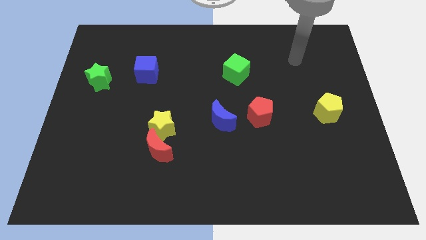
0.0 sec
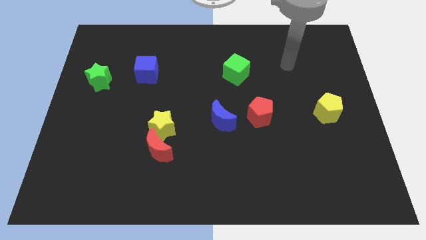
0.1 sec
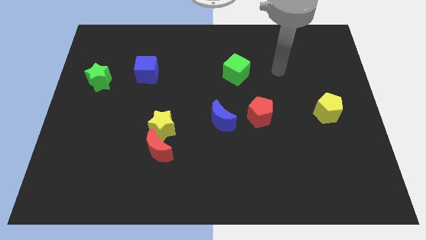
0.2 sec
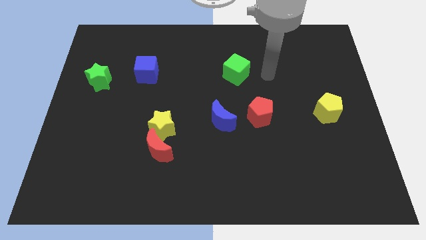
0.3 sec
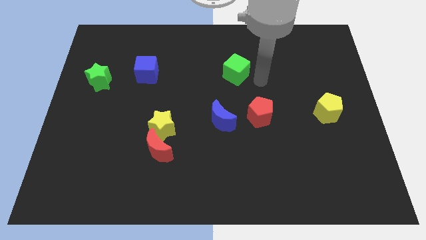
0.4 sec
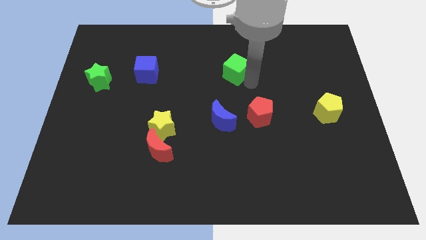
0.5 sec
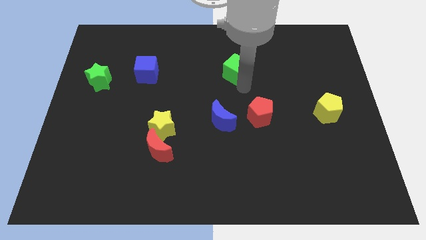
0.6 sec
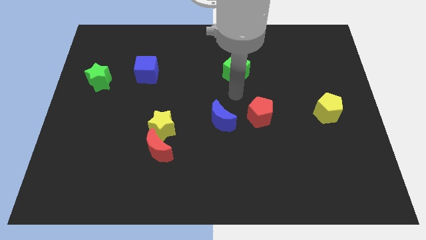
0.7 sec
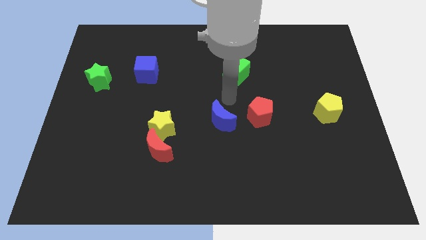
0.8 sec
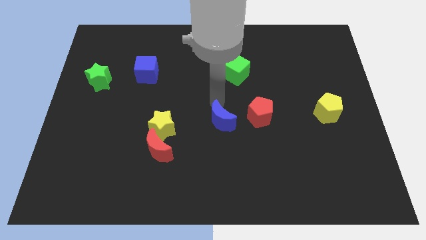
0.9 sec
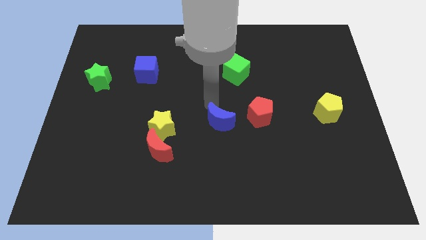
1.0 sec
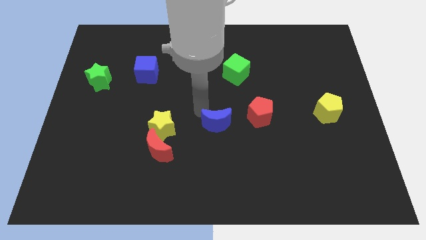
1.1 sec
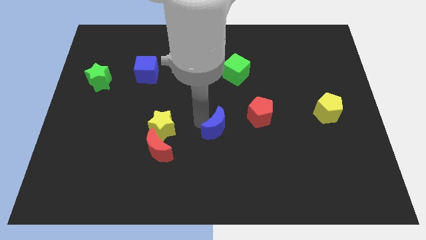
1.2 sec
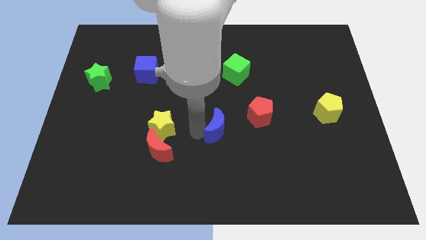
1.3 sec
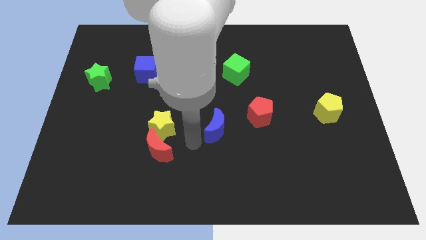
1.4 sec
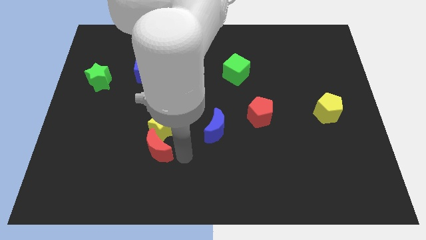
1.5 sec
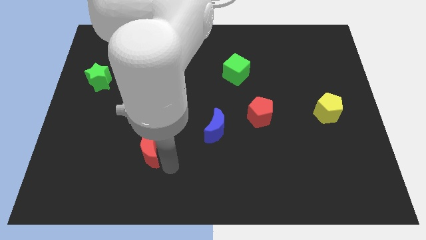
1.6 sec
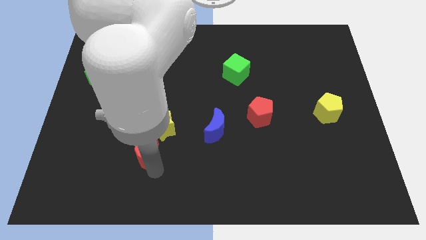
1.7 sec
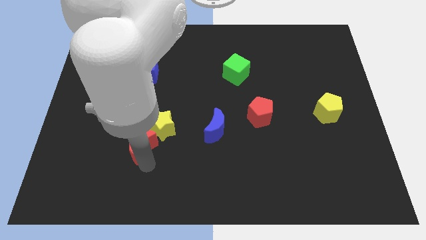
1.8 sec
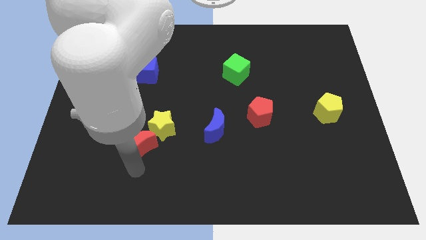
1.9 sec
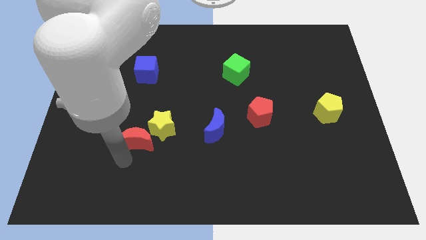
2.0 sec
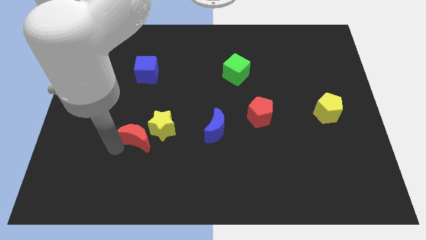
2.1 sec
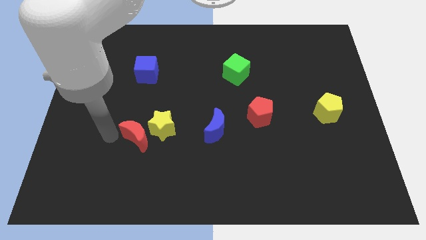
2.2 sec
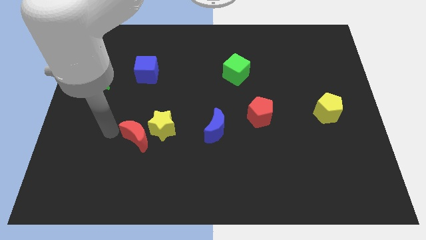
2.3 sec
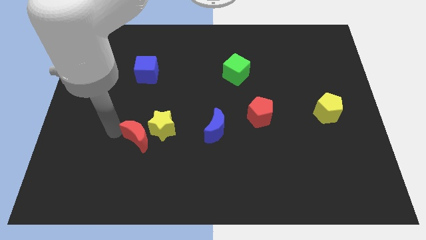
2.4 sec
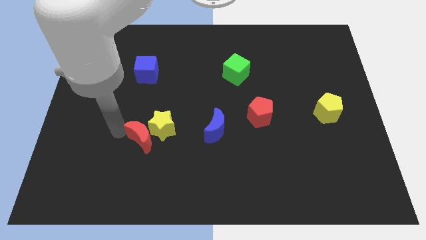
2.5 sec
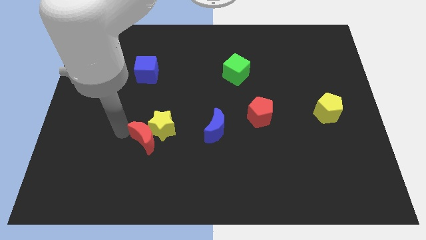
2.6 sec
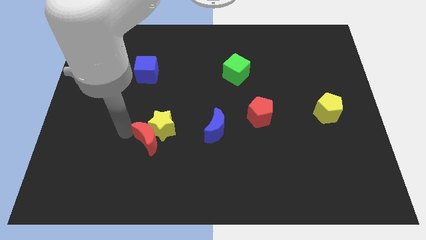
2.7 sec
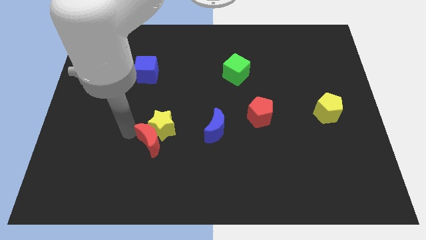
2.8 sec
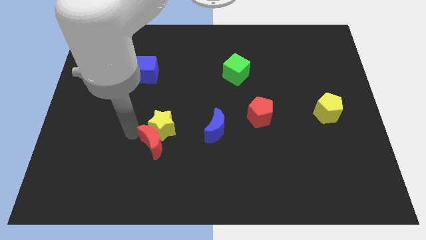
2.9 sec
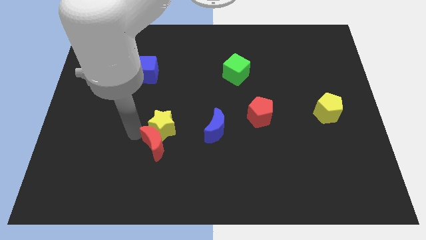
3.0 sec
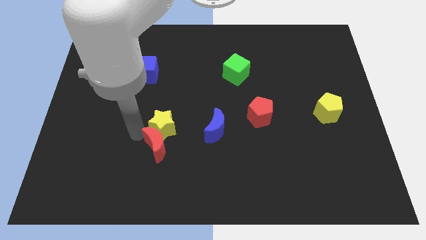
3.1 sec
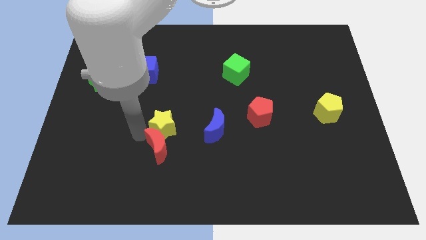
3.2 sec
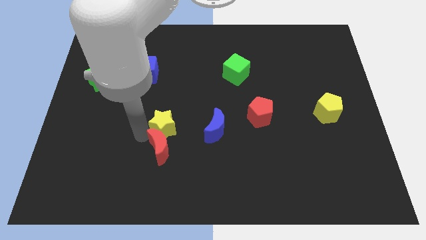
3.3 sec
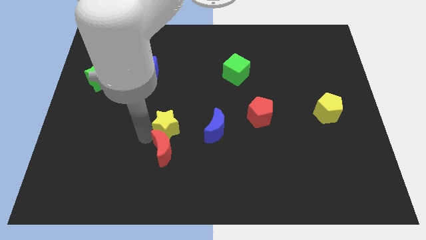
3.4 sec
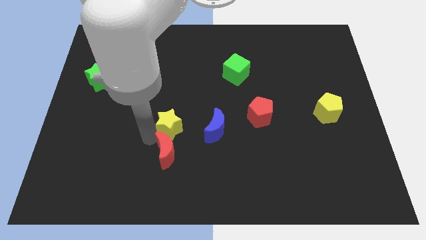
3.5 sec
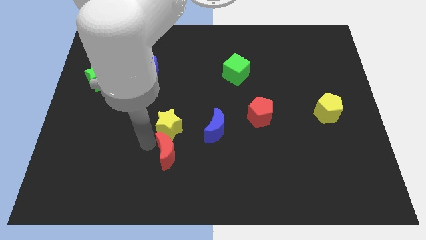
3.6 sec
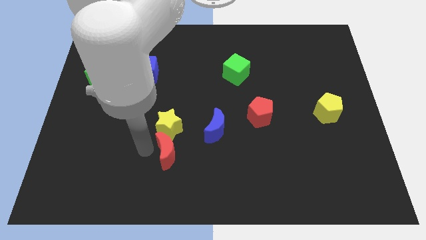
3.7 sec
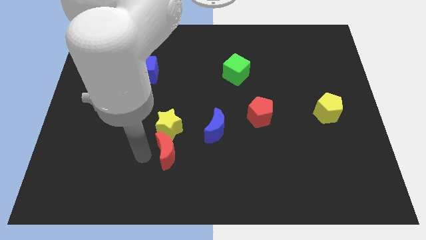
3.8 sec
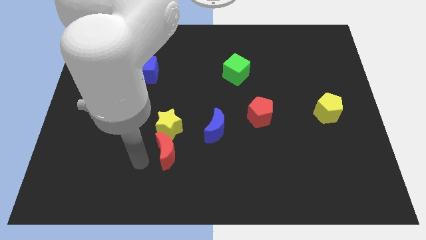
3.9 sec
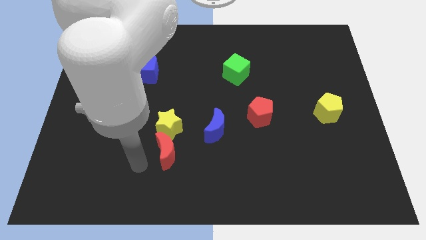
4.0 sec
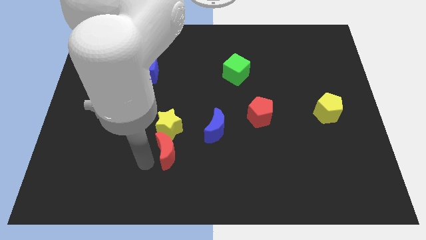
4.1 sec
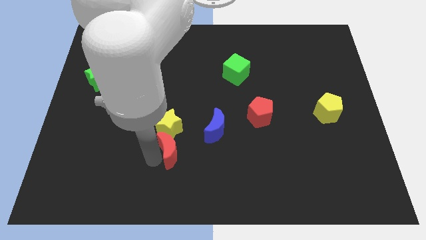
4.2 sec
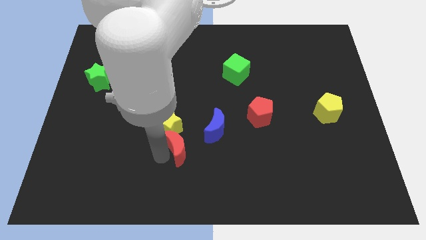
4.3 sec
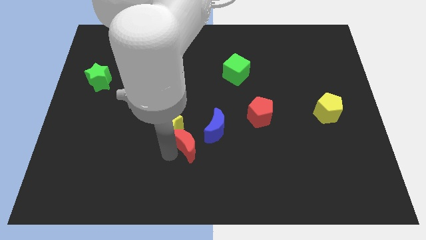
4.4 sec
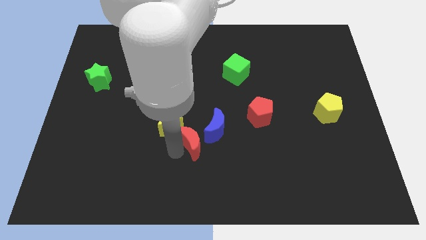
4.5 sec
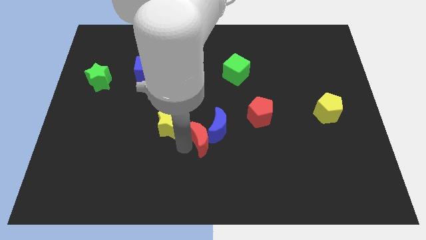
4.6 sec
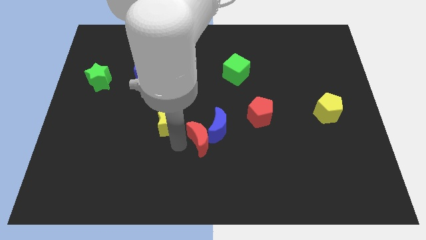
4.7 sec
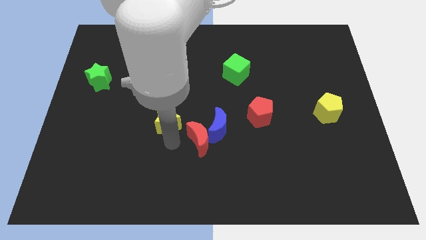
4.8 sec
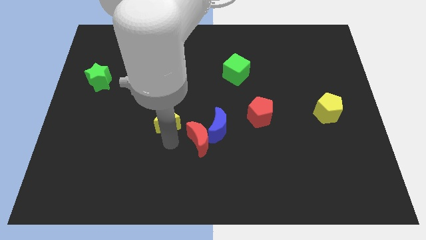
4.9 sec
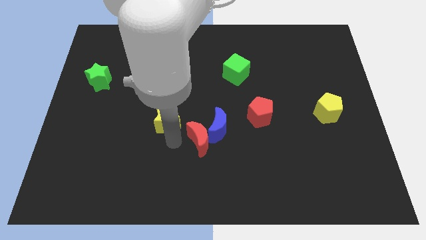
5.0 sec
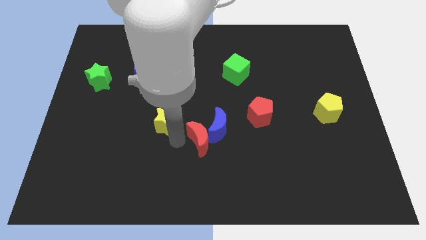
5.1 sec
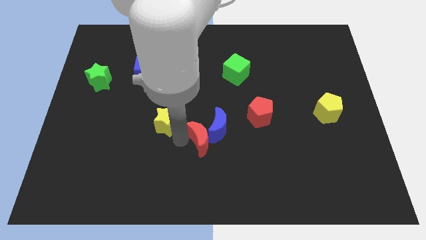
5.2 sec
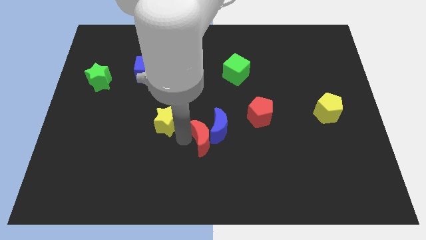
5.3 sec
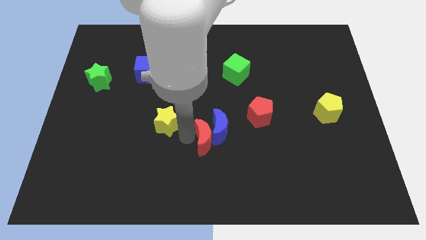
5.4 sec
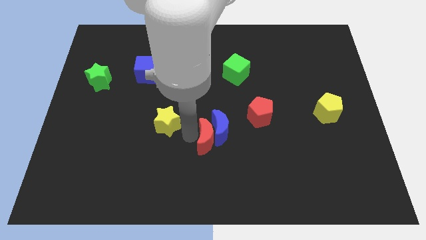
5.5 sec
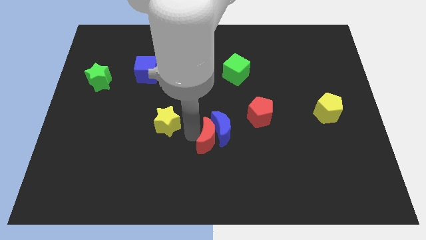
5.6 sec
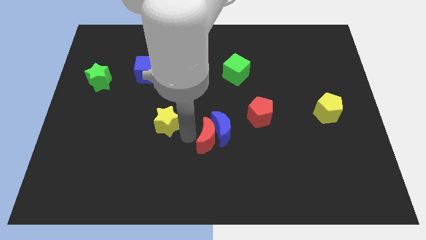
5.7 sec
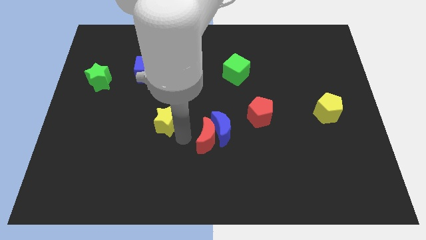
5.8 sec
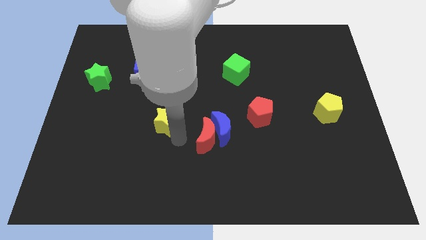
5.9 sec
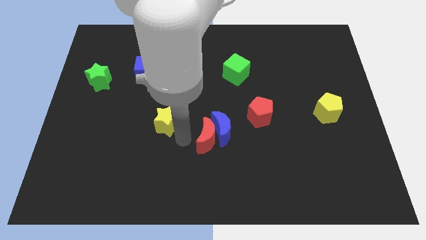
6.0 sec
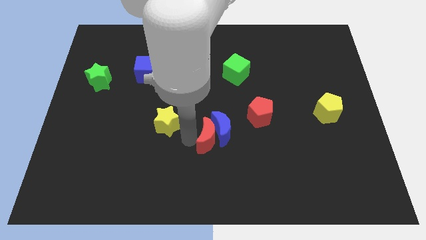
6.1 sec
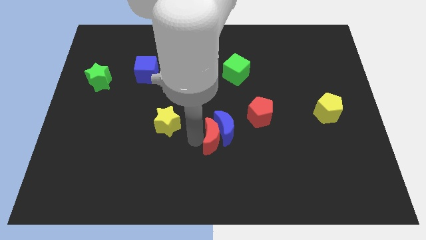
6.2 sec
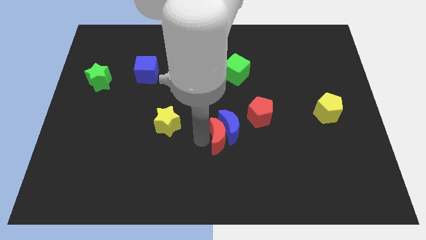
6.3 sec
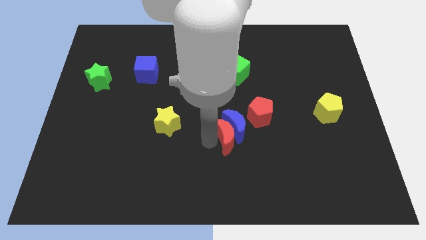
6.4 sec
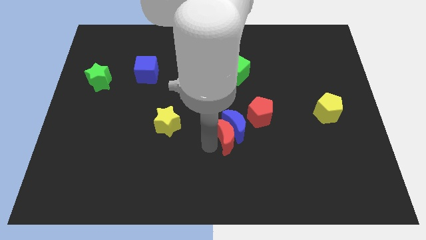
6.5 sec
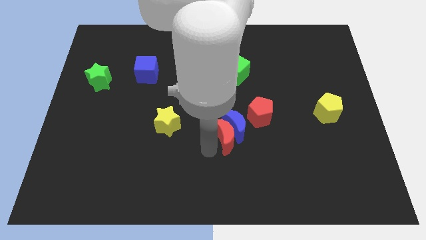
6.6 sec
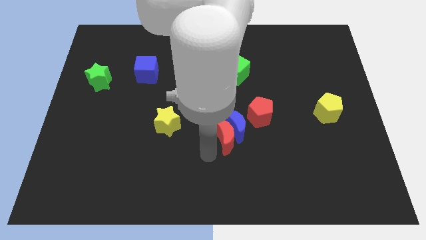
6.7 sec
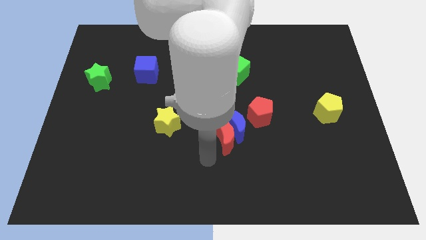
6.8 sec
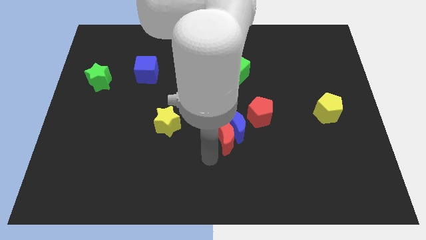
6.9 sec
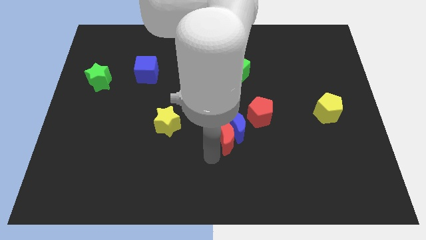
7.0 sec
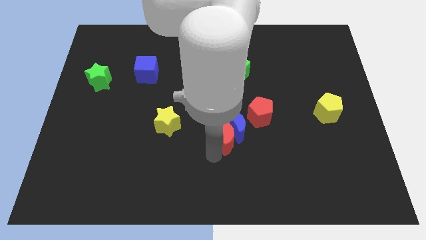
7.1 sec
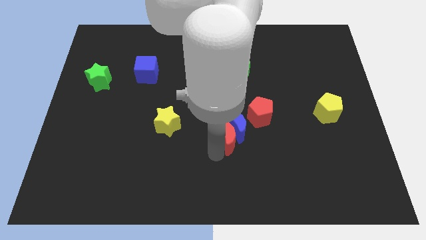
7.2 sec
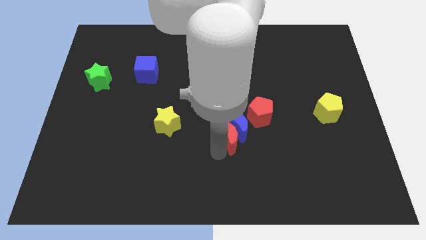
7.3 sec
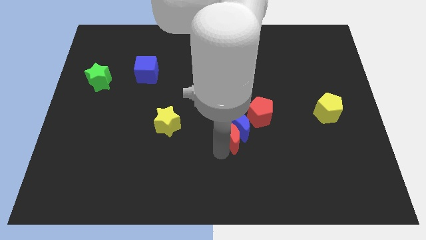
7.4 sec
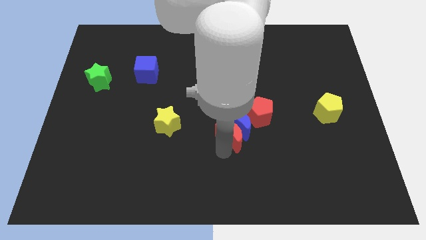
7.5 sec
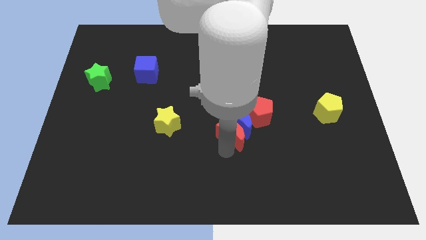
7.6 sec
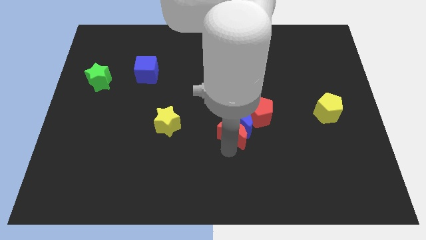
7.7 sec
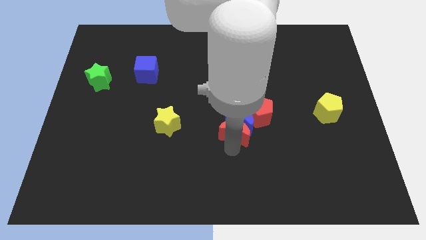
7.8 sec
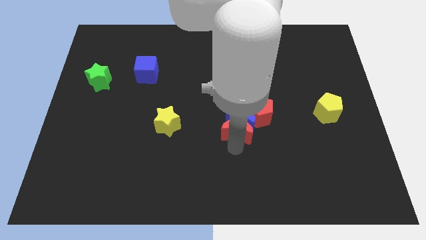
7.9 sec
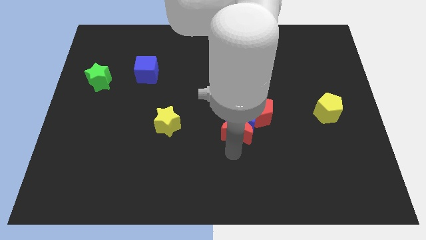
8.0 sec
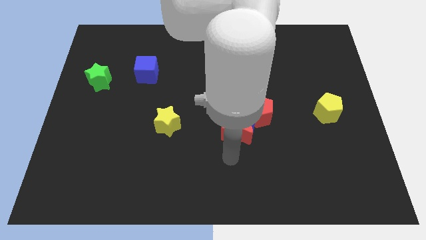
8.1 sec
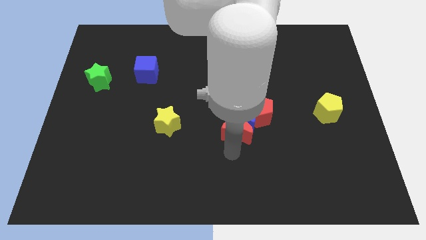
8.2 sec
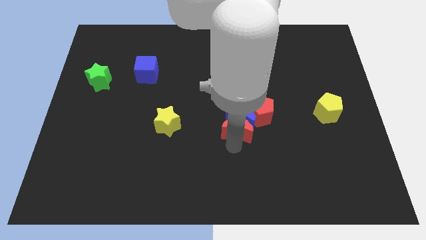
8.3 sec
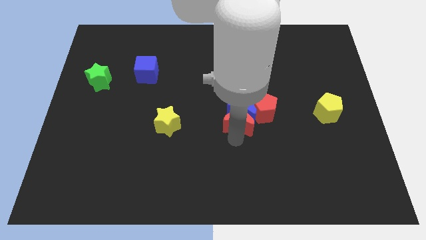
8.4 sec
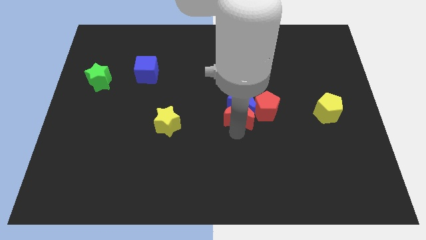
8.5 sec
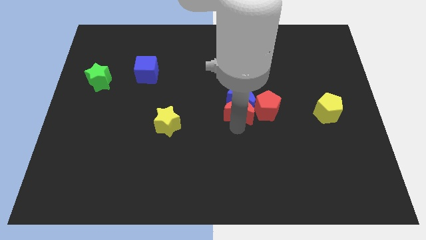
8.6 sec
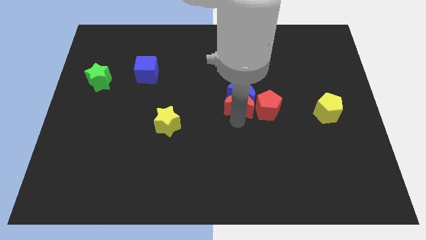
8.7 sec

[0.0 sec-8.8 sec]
push the red moon diagonally upwards and right
